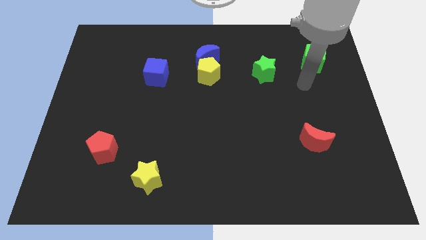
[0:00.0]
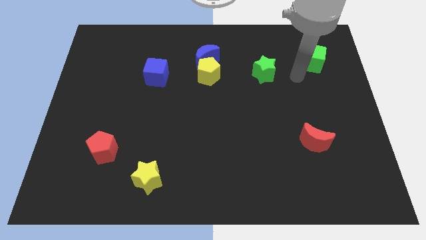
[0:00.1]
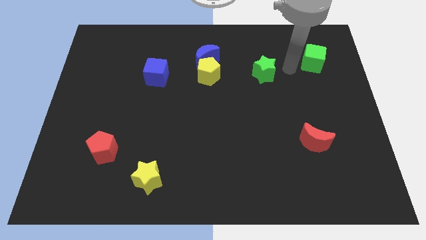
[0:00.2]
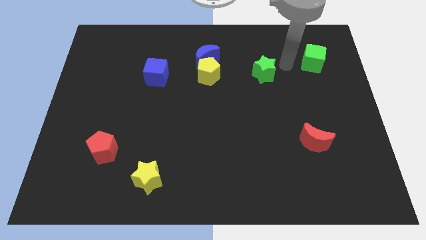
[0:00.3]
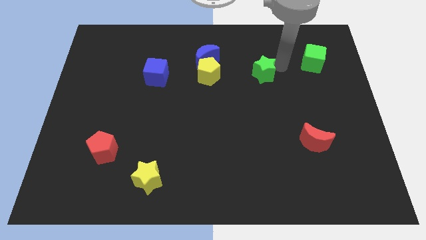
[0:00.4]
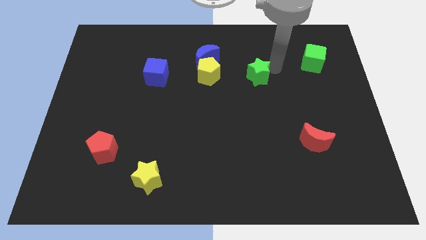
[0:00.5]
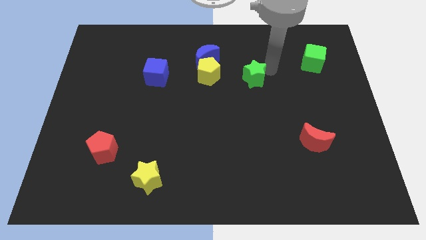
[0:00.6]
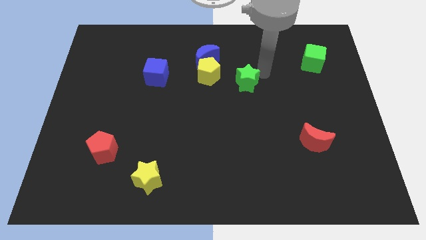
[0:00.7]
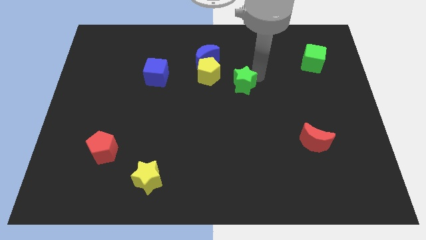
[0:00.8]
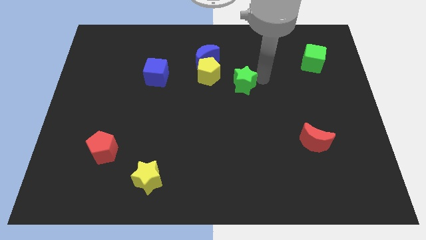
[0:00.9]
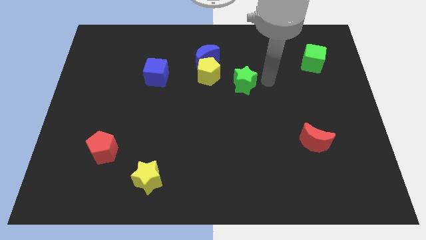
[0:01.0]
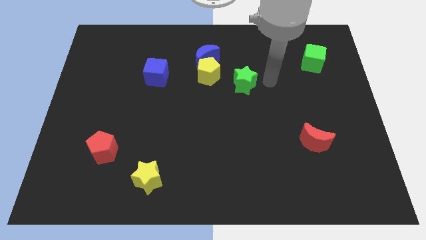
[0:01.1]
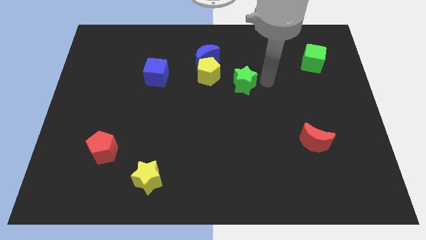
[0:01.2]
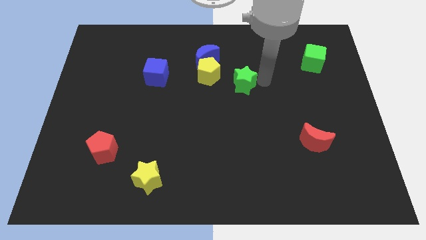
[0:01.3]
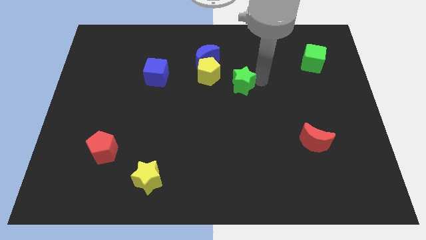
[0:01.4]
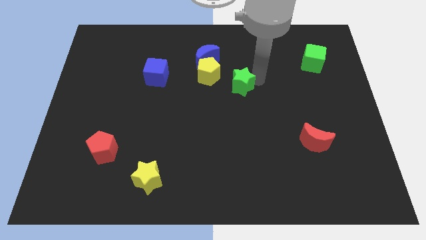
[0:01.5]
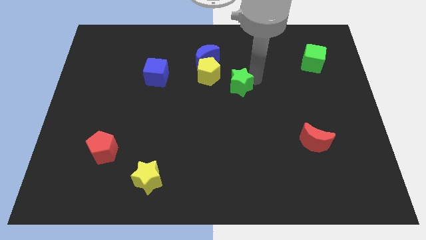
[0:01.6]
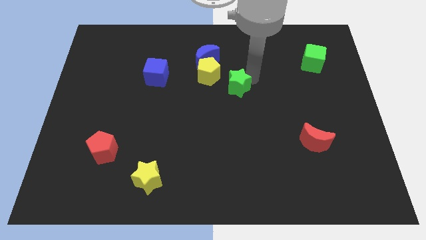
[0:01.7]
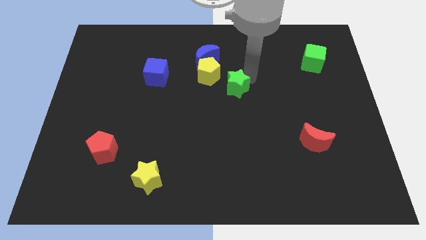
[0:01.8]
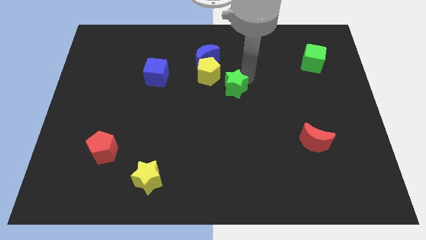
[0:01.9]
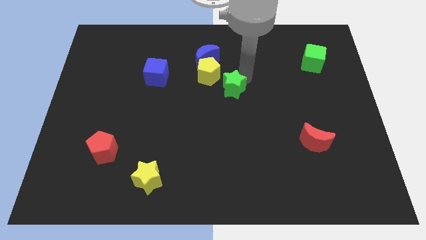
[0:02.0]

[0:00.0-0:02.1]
move the green star left a bit

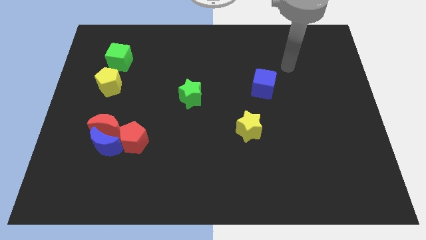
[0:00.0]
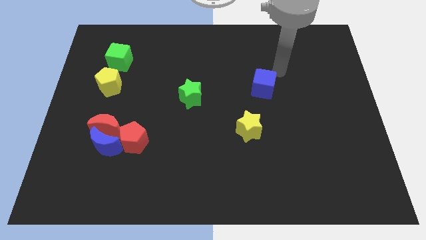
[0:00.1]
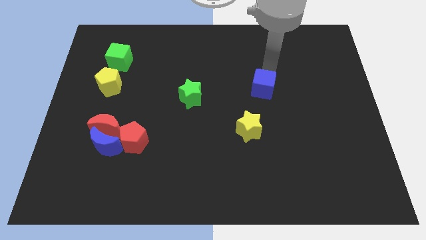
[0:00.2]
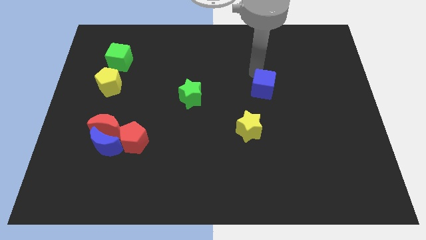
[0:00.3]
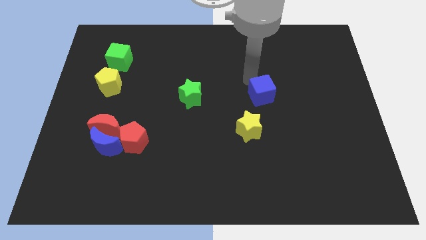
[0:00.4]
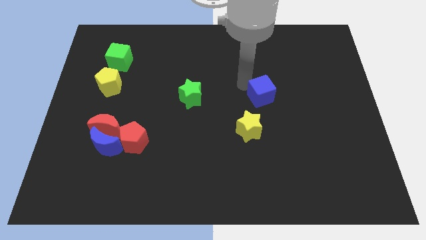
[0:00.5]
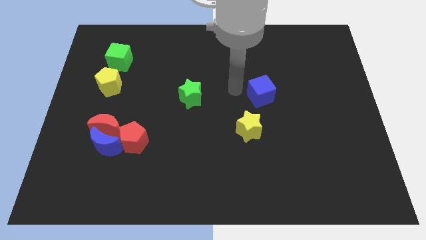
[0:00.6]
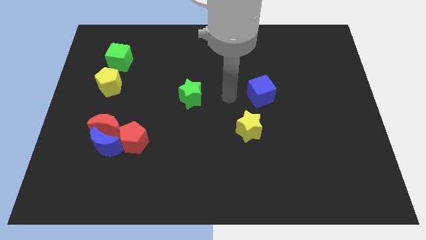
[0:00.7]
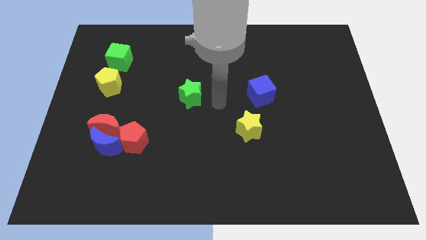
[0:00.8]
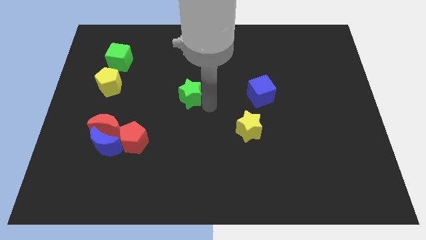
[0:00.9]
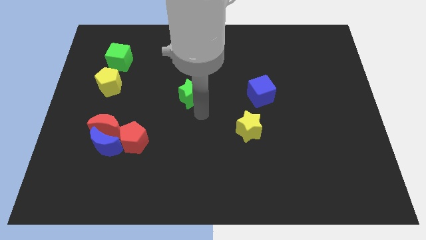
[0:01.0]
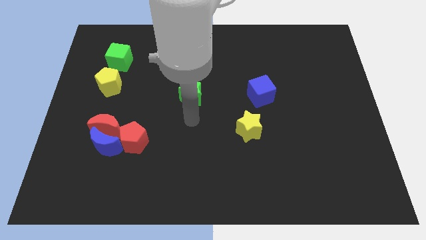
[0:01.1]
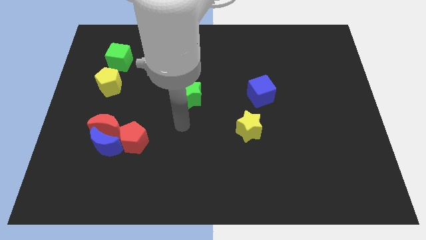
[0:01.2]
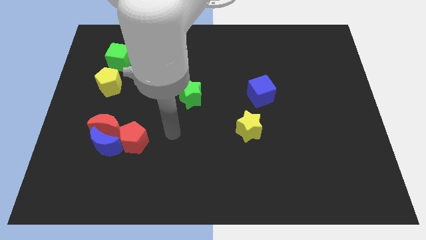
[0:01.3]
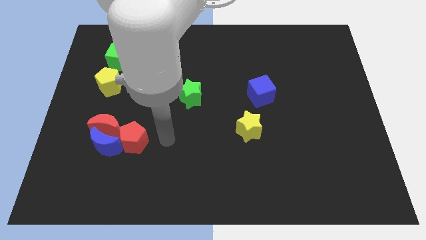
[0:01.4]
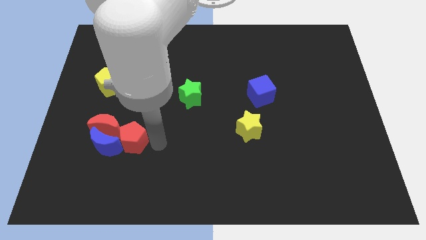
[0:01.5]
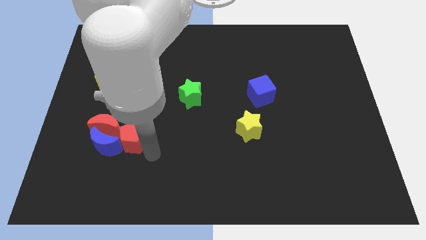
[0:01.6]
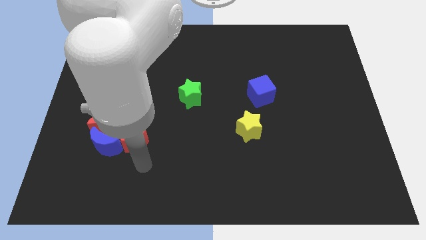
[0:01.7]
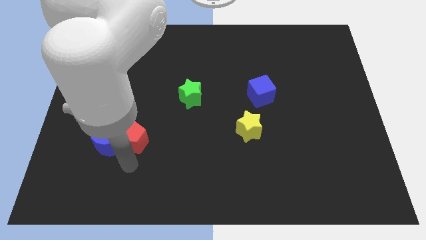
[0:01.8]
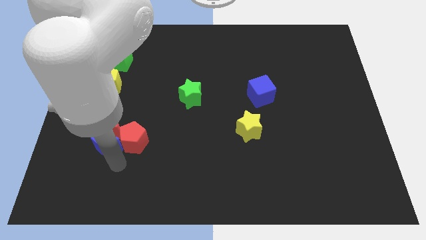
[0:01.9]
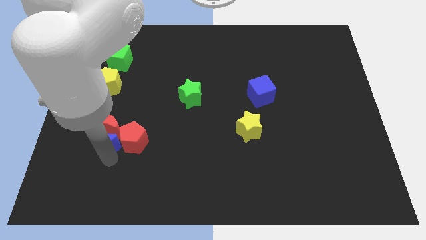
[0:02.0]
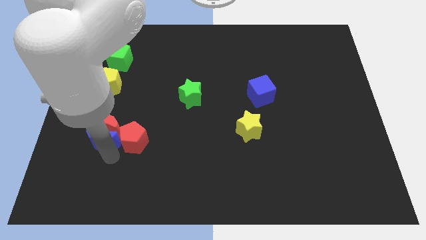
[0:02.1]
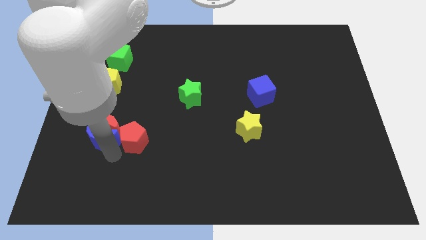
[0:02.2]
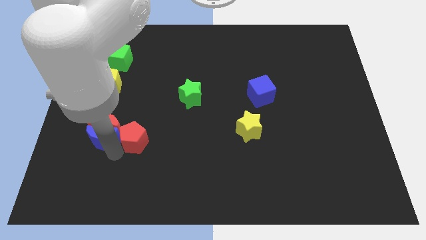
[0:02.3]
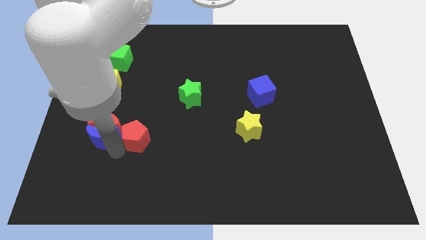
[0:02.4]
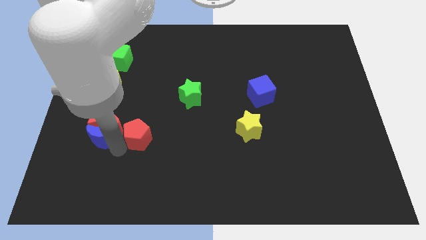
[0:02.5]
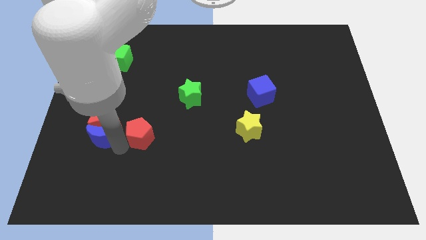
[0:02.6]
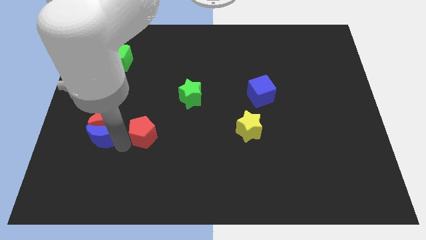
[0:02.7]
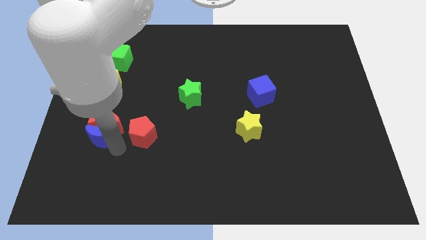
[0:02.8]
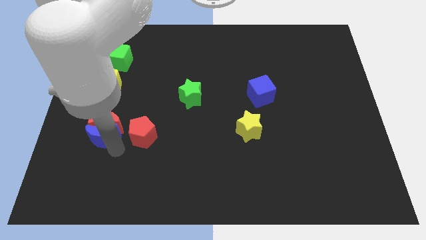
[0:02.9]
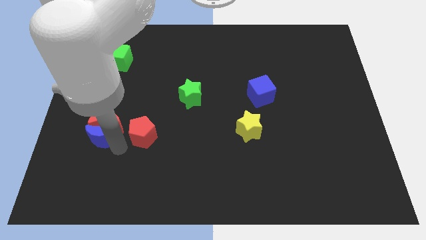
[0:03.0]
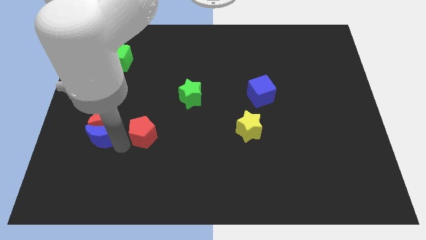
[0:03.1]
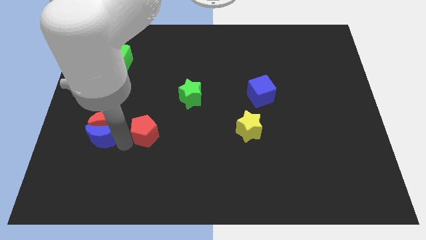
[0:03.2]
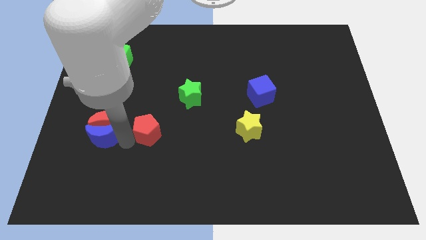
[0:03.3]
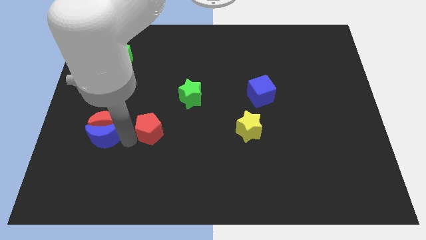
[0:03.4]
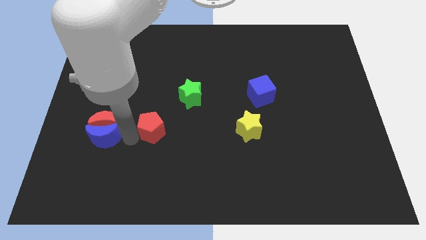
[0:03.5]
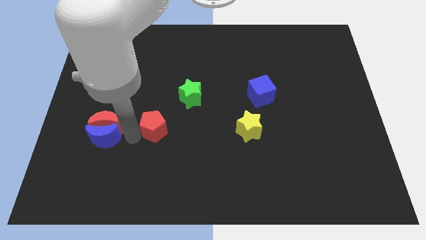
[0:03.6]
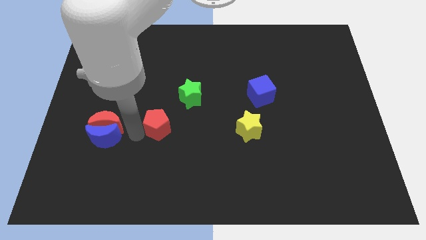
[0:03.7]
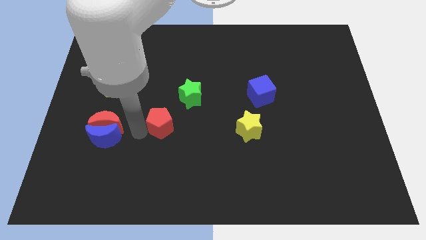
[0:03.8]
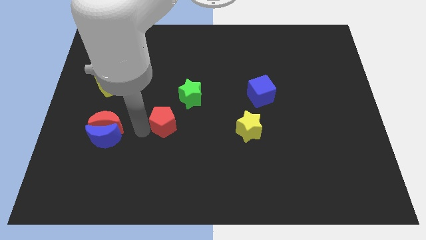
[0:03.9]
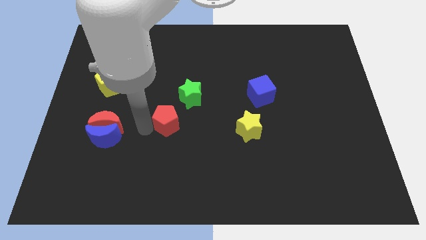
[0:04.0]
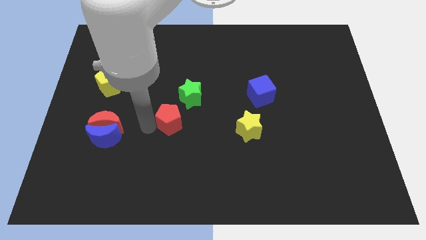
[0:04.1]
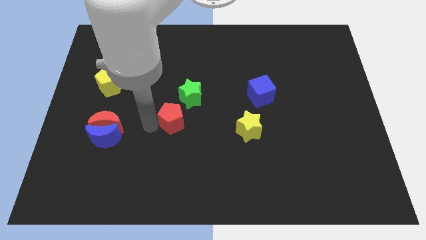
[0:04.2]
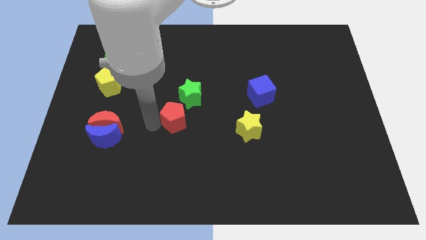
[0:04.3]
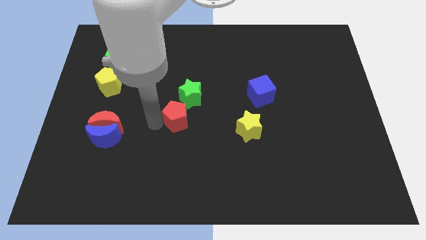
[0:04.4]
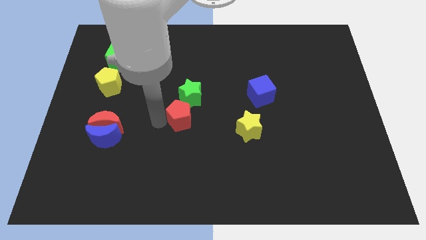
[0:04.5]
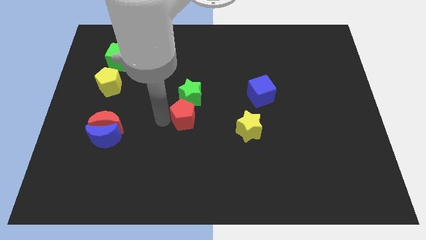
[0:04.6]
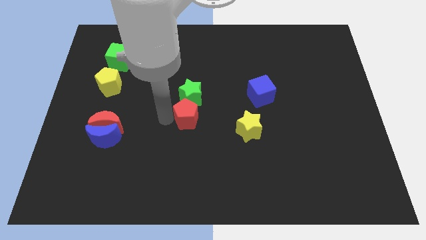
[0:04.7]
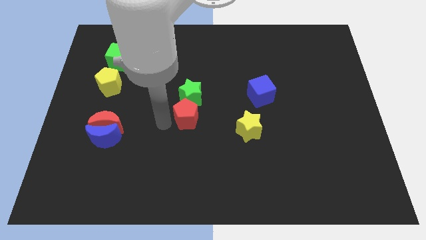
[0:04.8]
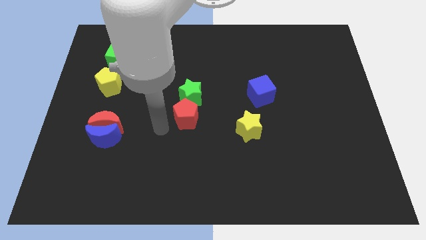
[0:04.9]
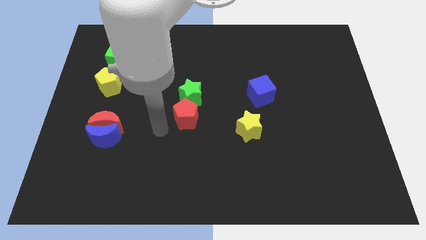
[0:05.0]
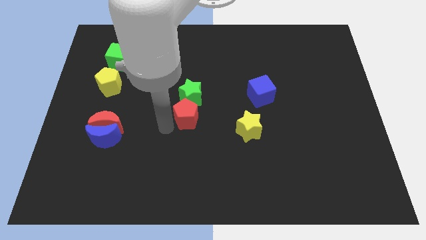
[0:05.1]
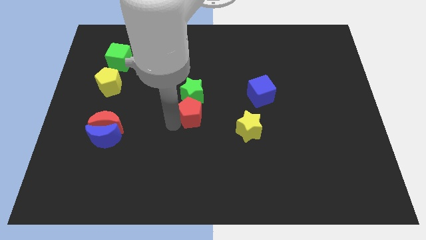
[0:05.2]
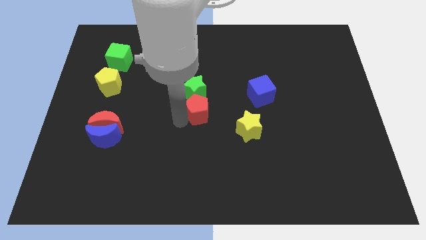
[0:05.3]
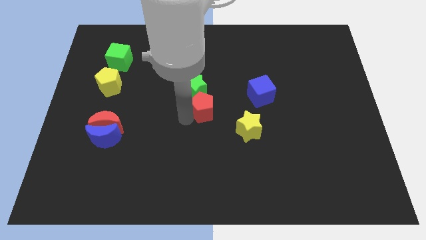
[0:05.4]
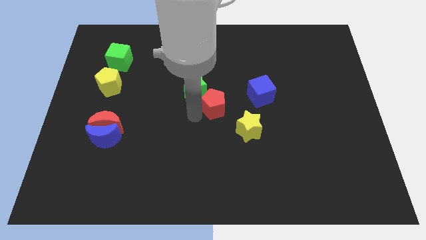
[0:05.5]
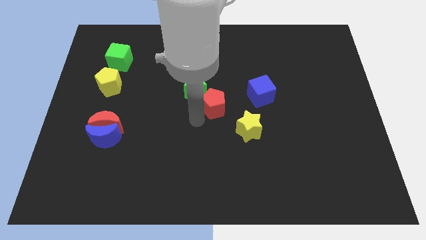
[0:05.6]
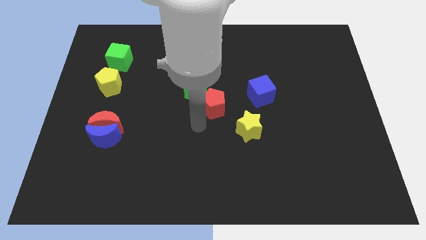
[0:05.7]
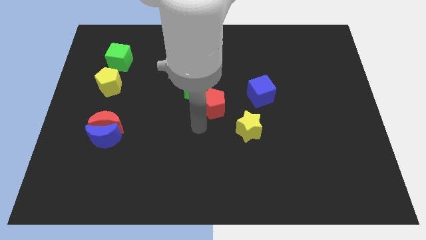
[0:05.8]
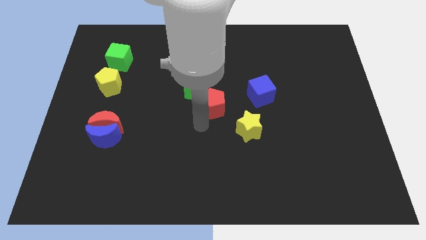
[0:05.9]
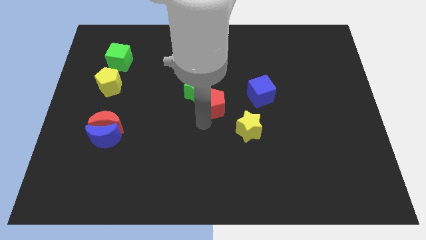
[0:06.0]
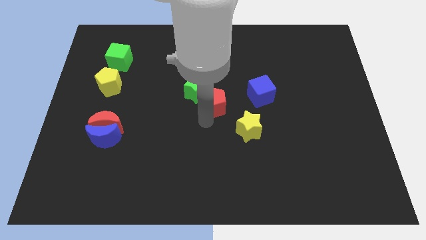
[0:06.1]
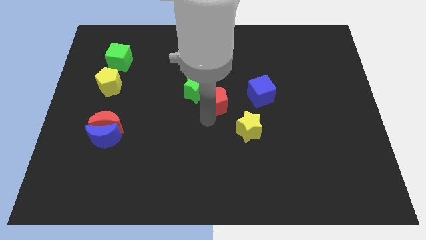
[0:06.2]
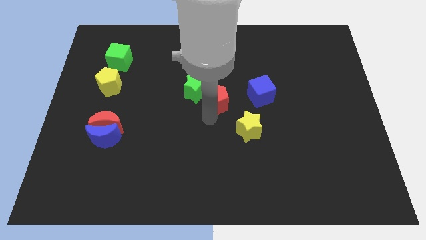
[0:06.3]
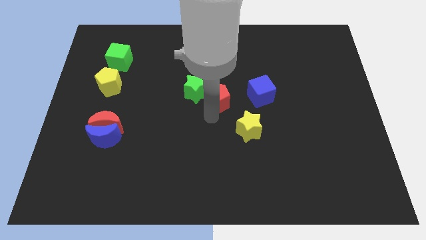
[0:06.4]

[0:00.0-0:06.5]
slide the red pentagon diagonally up and right

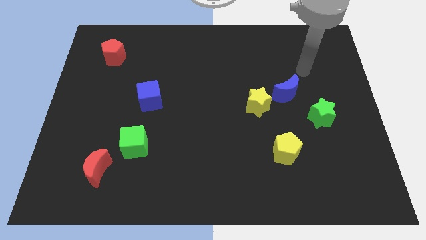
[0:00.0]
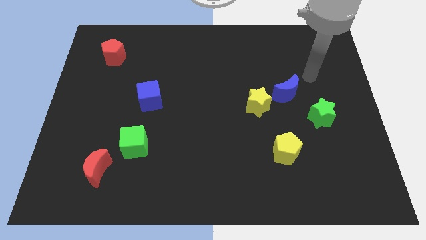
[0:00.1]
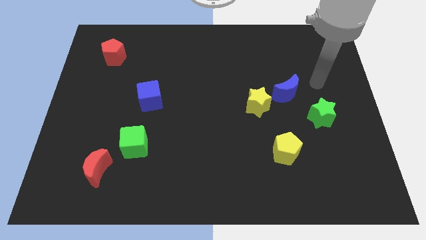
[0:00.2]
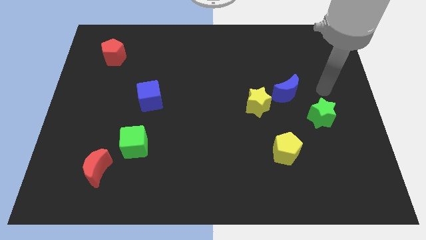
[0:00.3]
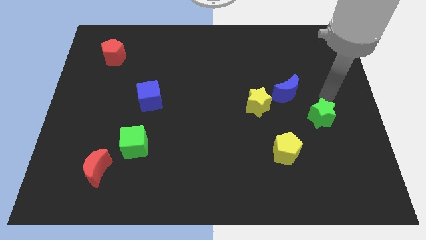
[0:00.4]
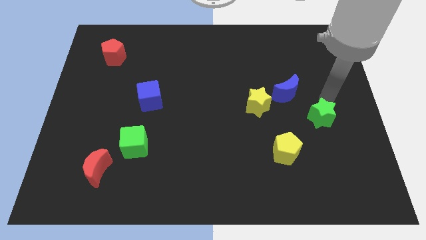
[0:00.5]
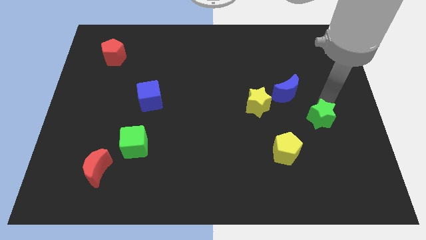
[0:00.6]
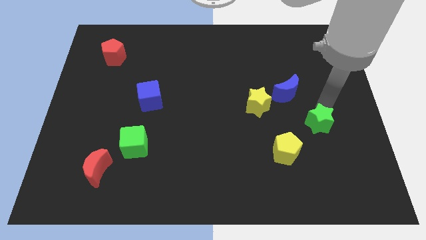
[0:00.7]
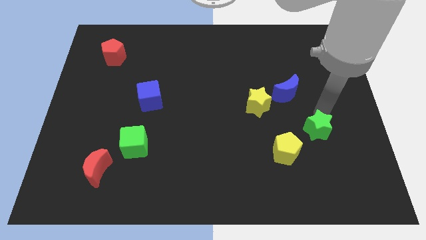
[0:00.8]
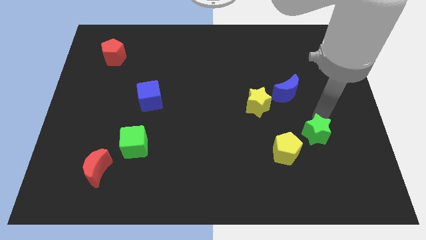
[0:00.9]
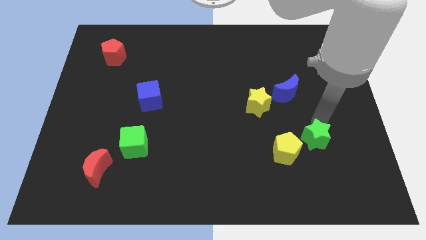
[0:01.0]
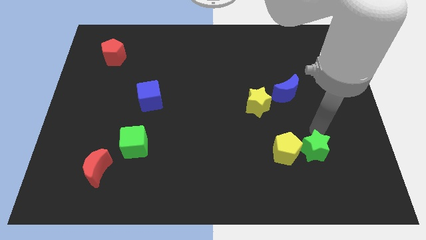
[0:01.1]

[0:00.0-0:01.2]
push the green star a bit downwards and to the left
